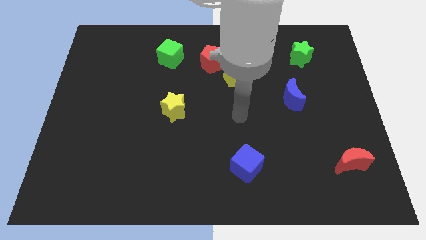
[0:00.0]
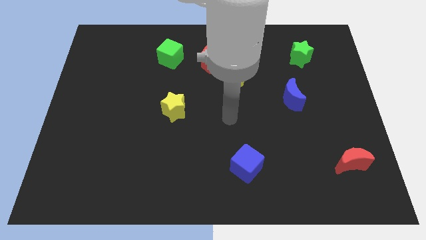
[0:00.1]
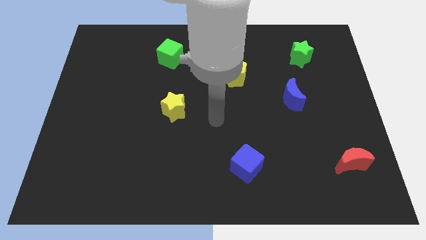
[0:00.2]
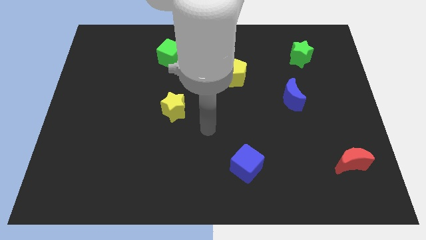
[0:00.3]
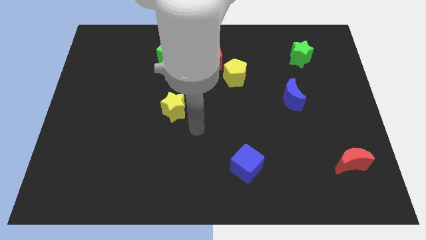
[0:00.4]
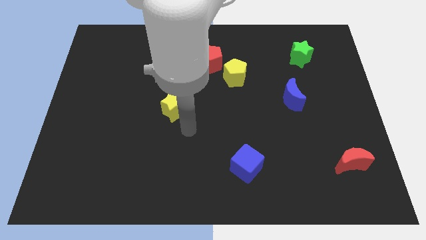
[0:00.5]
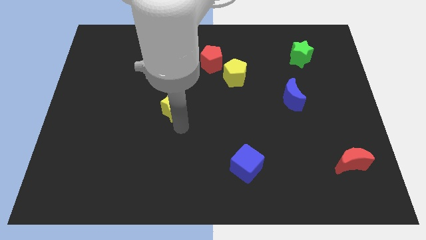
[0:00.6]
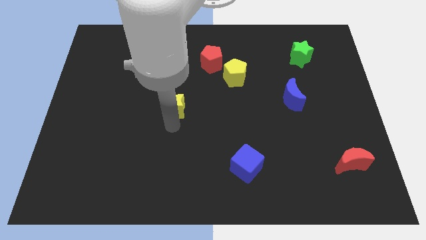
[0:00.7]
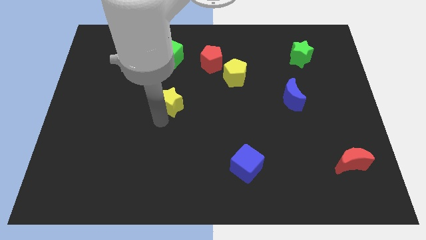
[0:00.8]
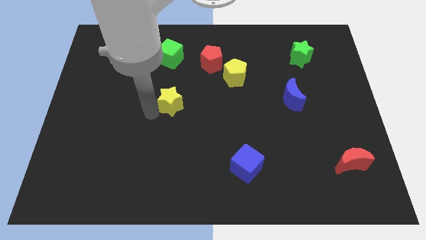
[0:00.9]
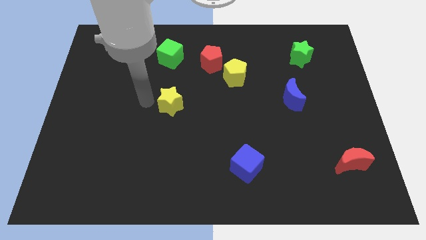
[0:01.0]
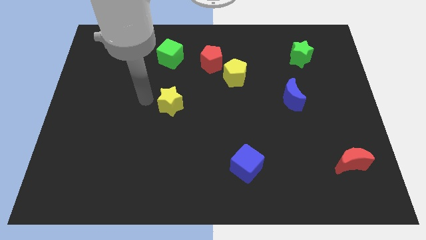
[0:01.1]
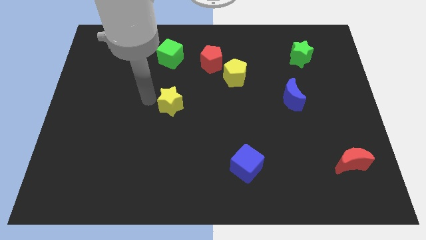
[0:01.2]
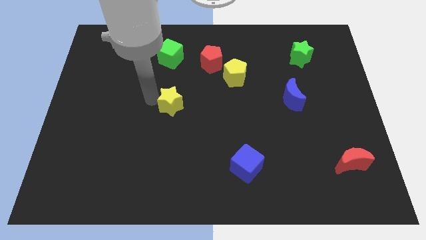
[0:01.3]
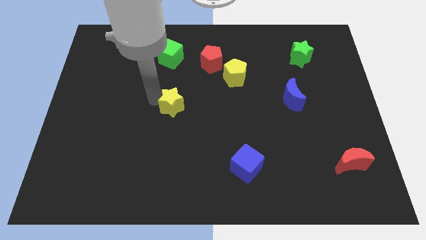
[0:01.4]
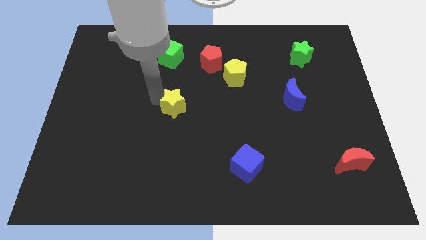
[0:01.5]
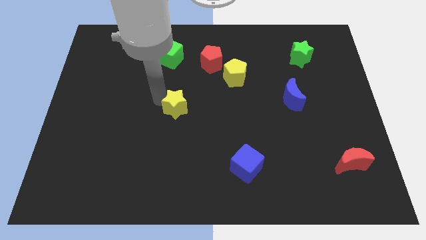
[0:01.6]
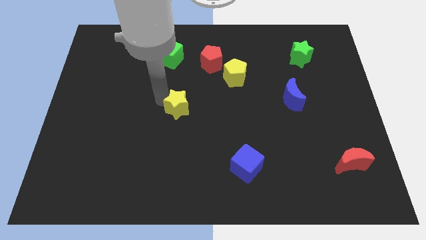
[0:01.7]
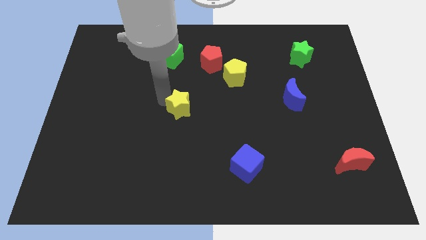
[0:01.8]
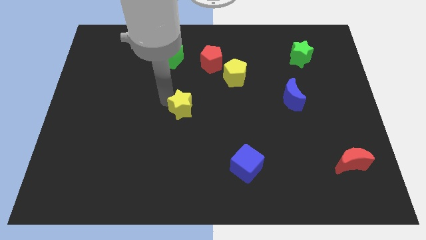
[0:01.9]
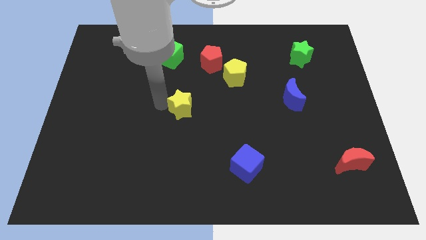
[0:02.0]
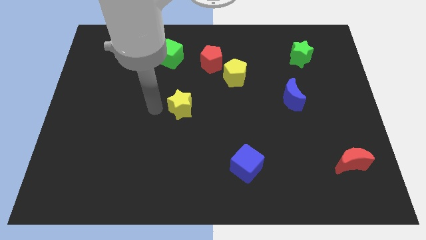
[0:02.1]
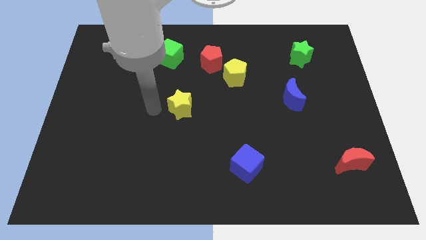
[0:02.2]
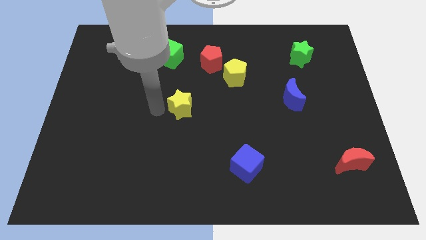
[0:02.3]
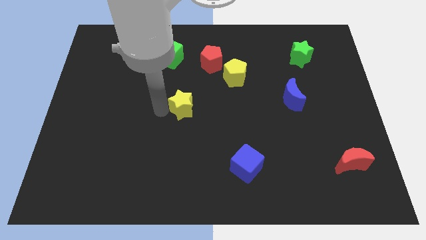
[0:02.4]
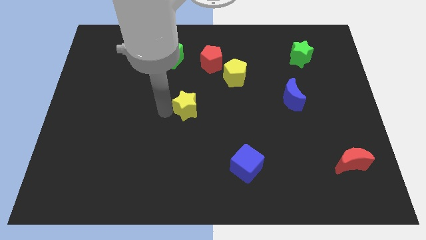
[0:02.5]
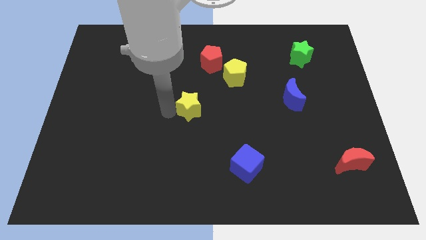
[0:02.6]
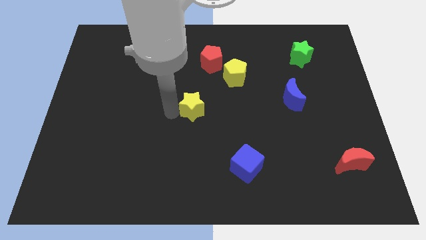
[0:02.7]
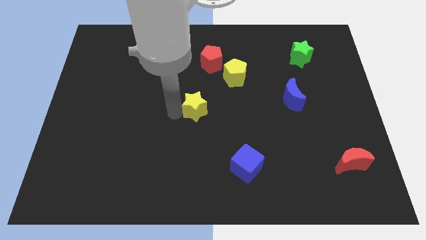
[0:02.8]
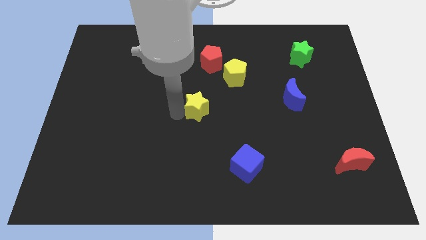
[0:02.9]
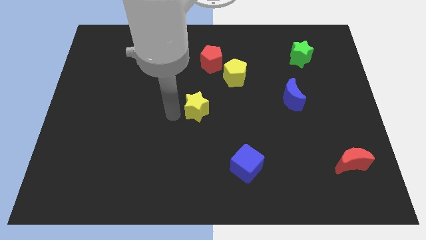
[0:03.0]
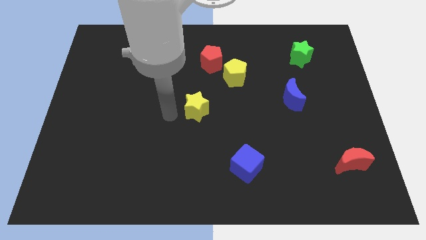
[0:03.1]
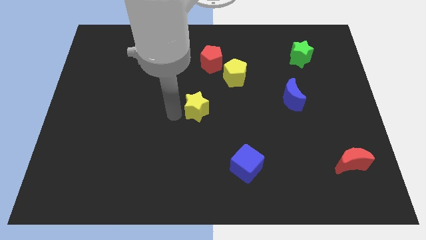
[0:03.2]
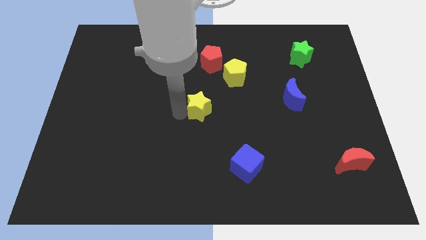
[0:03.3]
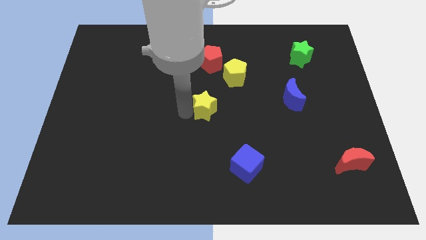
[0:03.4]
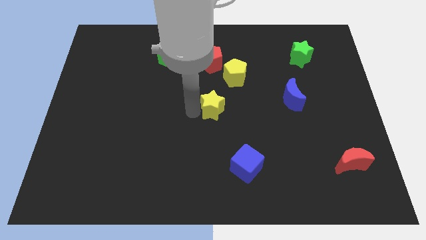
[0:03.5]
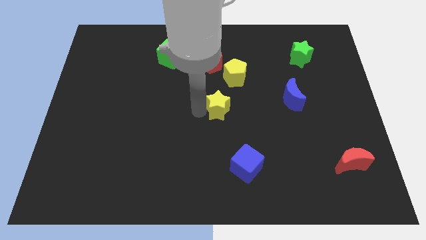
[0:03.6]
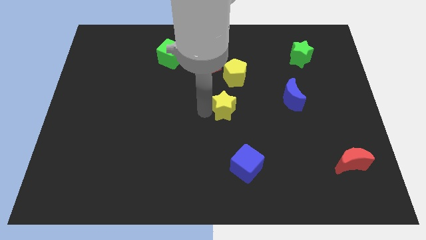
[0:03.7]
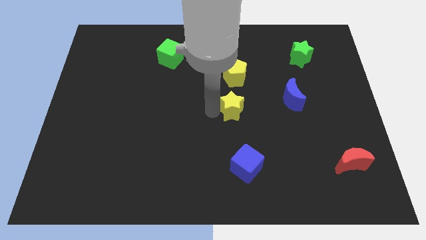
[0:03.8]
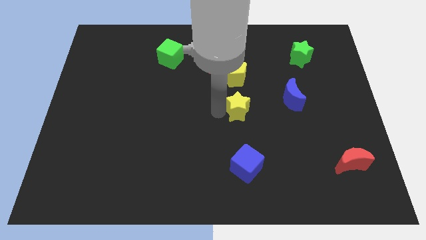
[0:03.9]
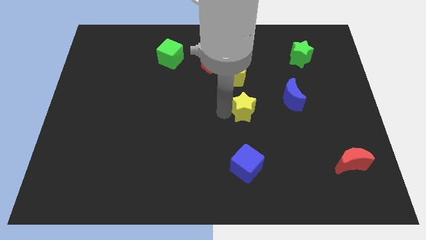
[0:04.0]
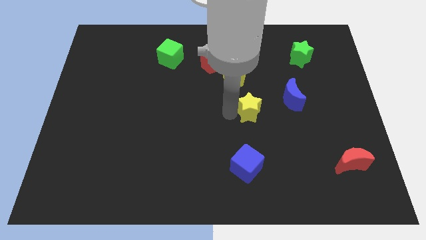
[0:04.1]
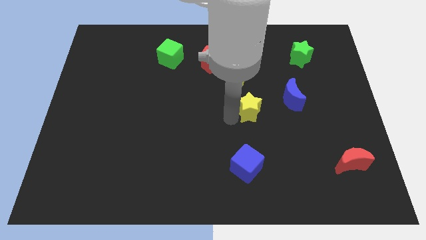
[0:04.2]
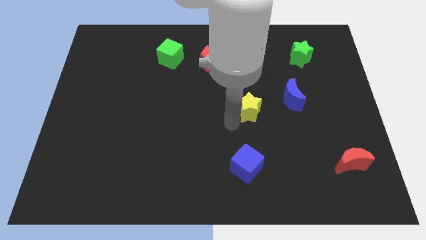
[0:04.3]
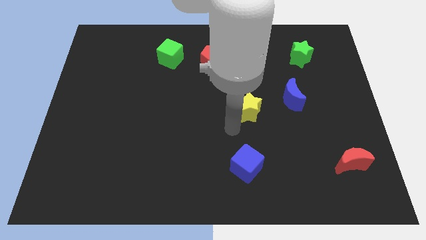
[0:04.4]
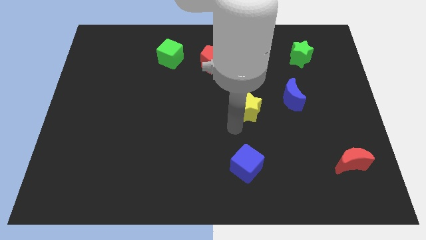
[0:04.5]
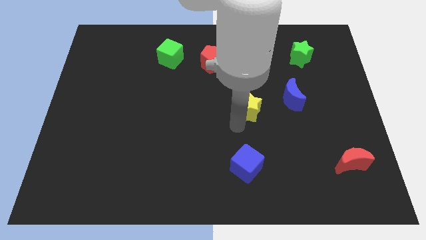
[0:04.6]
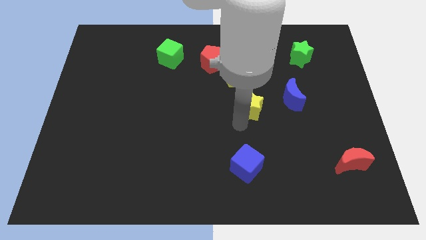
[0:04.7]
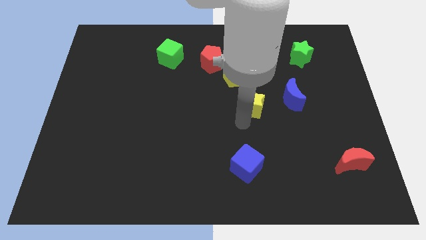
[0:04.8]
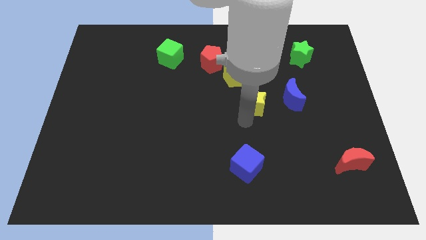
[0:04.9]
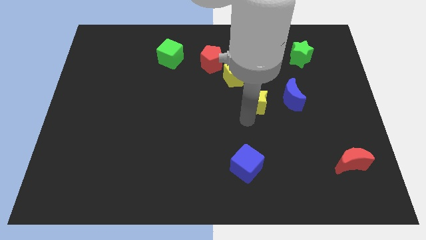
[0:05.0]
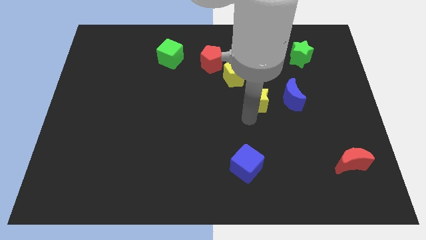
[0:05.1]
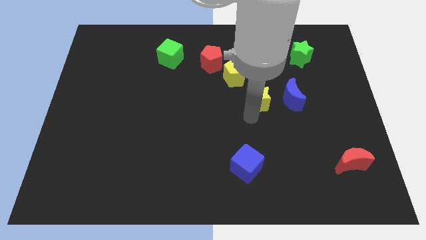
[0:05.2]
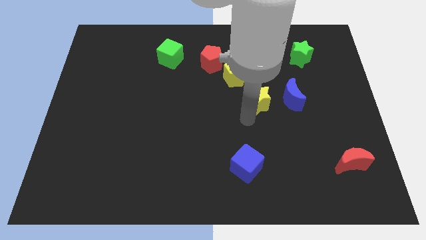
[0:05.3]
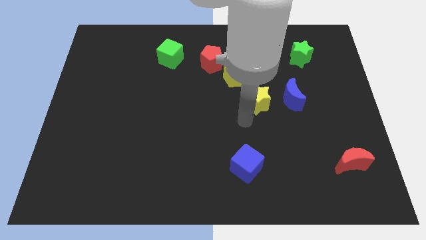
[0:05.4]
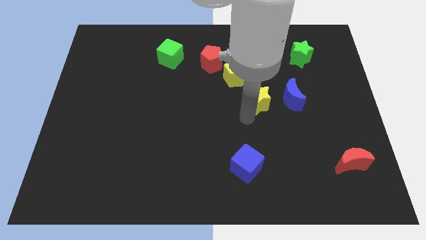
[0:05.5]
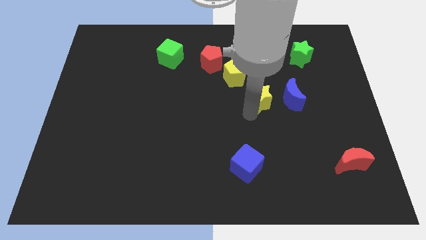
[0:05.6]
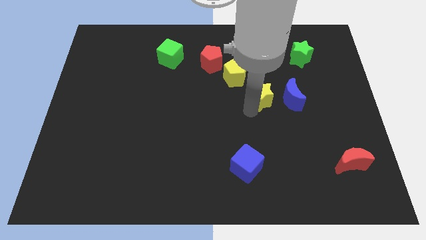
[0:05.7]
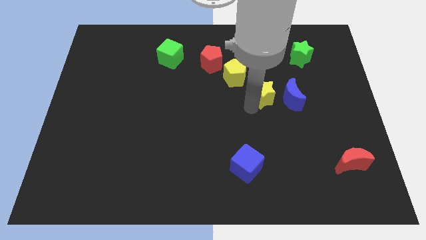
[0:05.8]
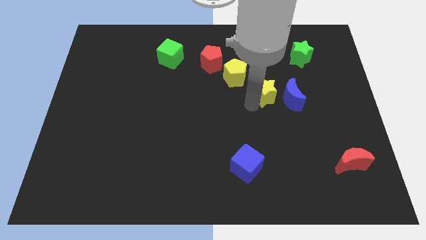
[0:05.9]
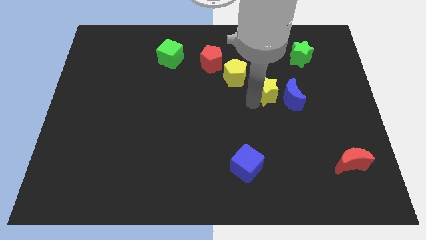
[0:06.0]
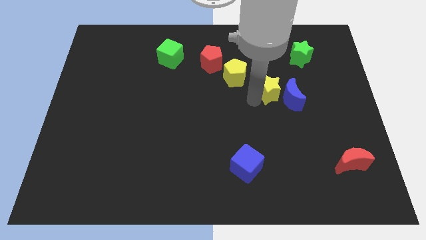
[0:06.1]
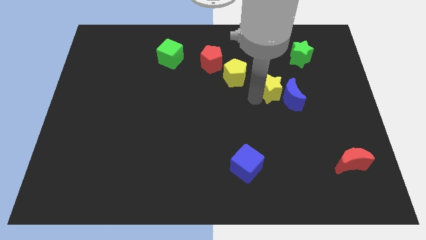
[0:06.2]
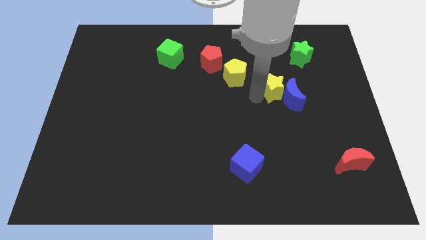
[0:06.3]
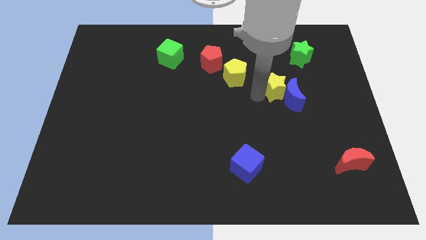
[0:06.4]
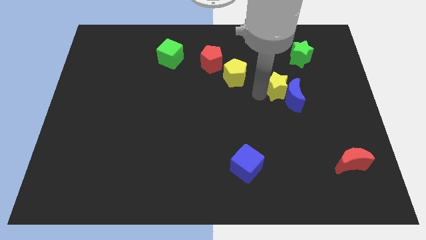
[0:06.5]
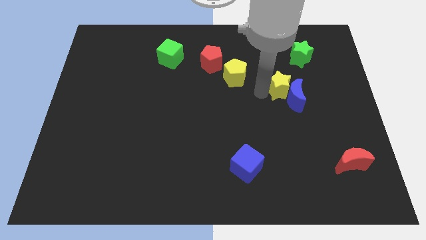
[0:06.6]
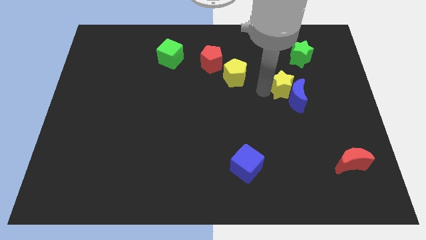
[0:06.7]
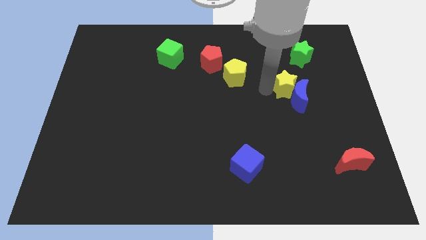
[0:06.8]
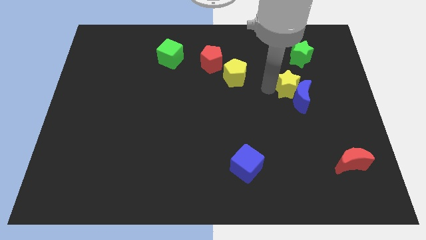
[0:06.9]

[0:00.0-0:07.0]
put the yellow star below the green star
